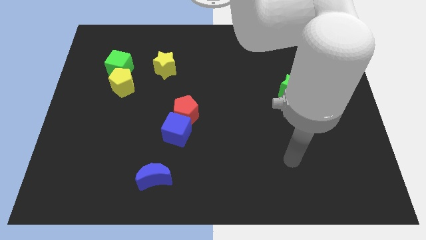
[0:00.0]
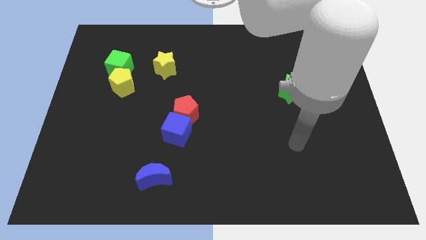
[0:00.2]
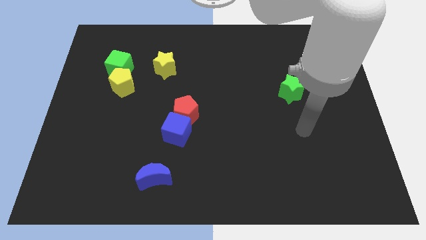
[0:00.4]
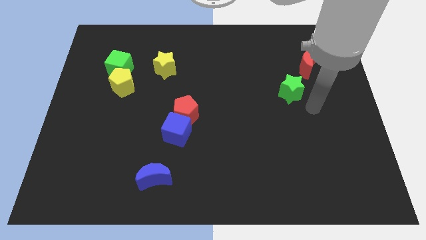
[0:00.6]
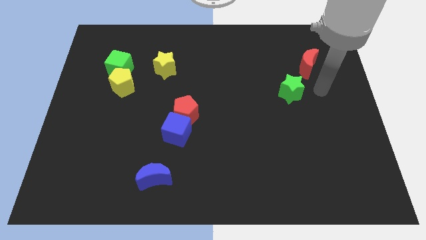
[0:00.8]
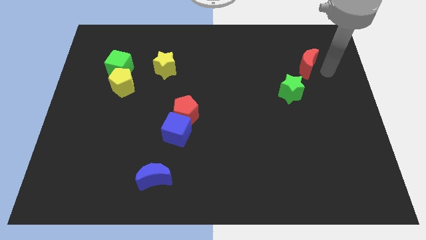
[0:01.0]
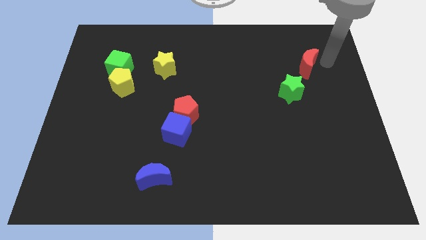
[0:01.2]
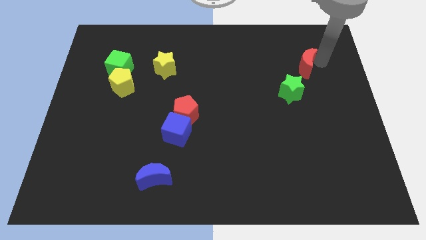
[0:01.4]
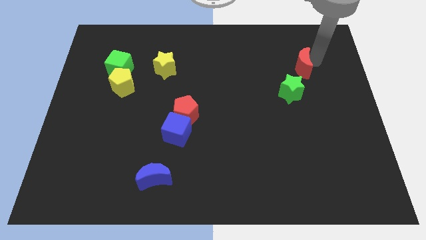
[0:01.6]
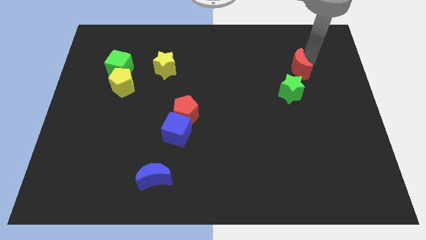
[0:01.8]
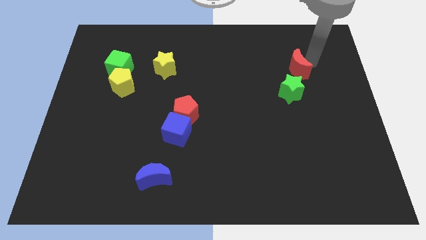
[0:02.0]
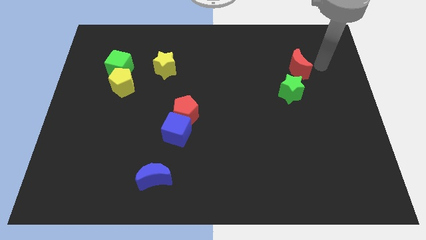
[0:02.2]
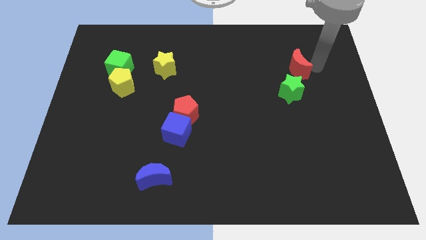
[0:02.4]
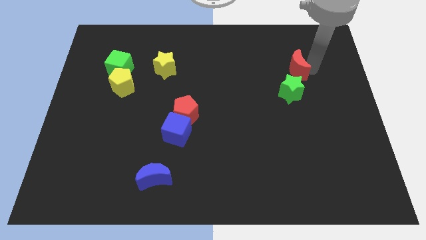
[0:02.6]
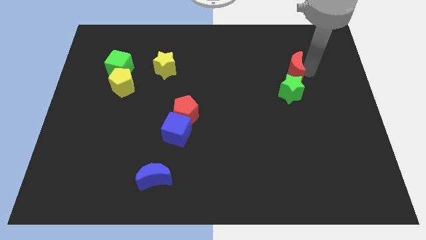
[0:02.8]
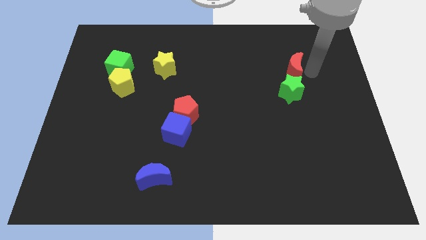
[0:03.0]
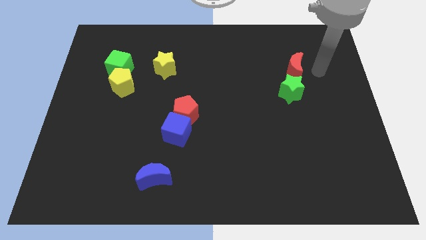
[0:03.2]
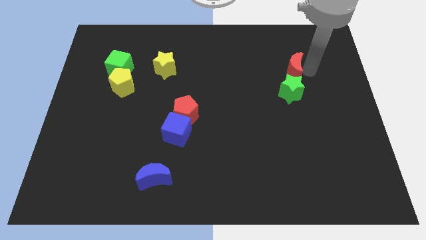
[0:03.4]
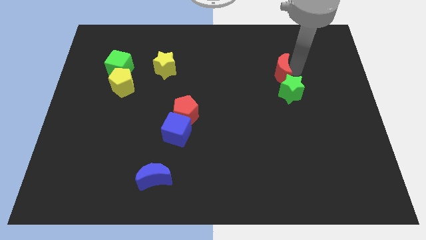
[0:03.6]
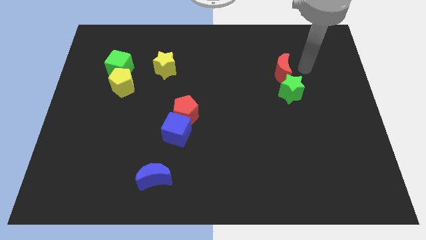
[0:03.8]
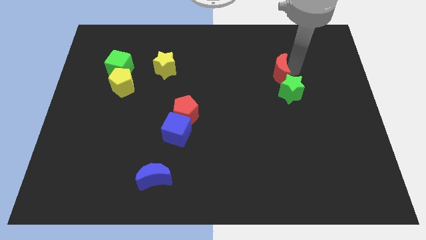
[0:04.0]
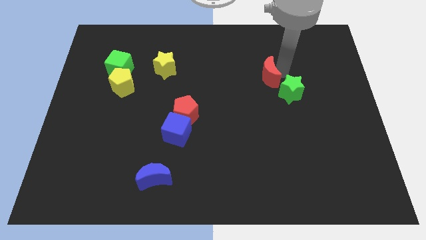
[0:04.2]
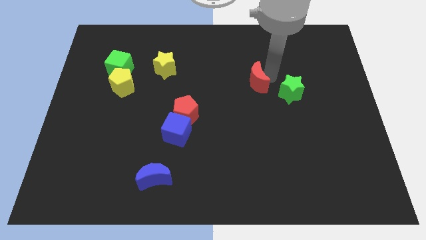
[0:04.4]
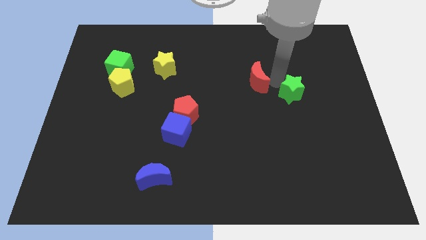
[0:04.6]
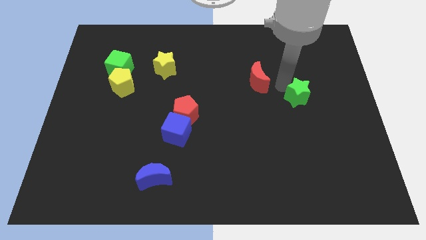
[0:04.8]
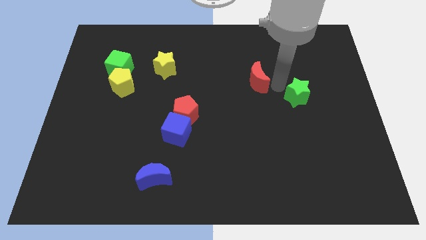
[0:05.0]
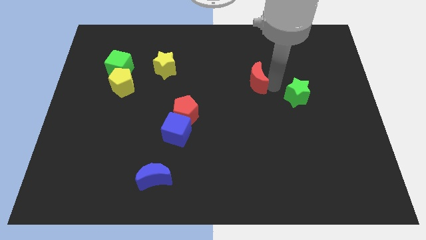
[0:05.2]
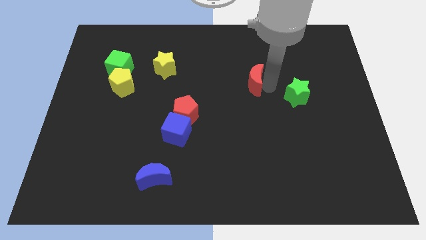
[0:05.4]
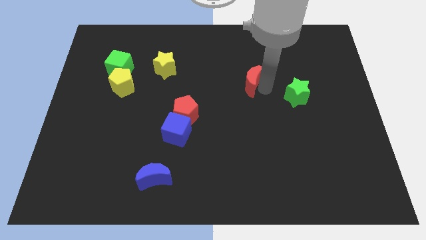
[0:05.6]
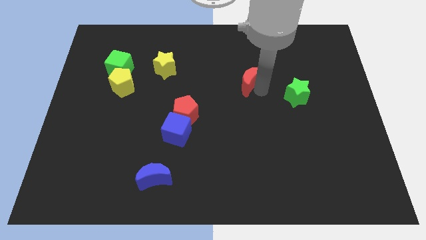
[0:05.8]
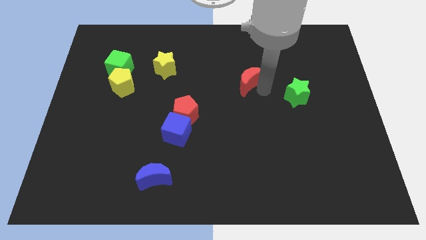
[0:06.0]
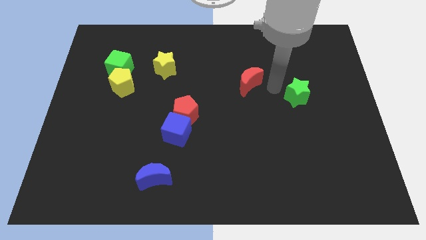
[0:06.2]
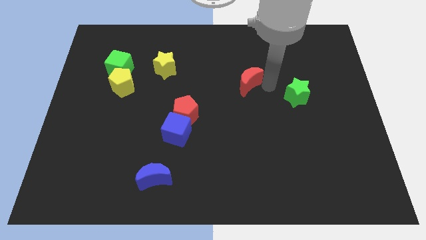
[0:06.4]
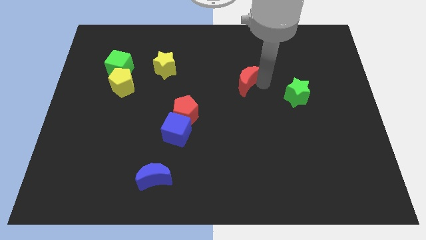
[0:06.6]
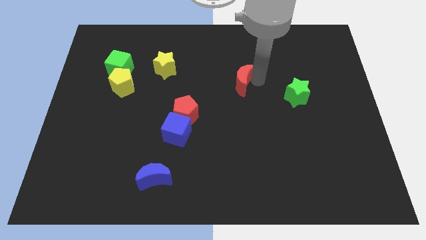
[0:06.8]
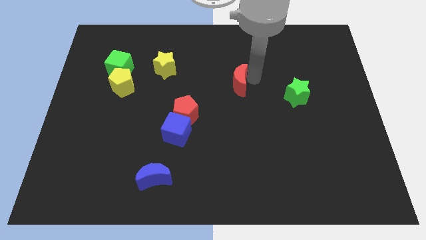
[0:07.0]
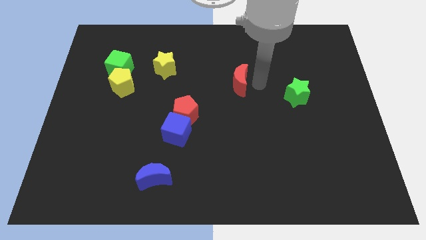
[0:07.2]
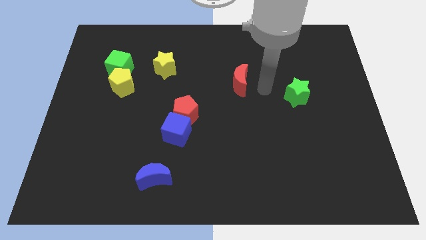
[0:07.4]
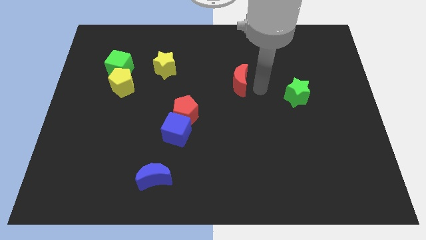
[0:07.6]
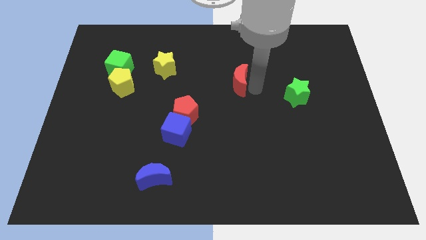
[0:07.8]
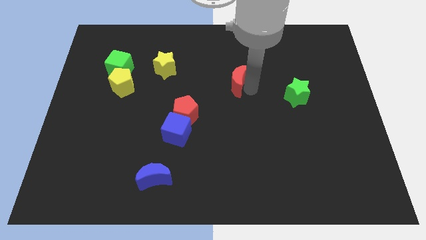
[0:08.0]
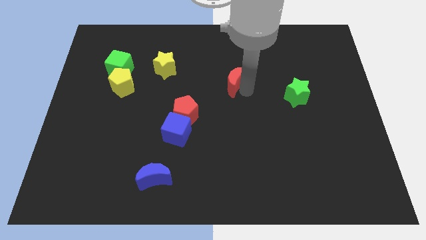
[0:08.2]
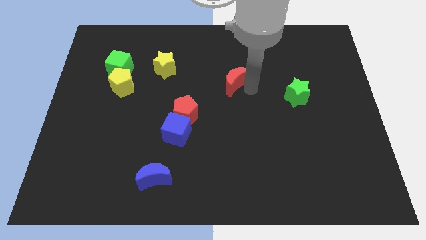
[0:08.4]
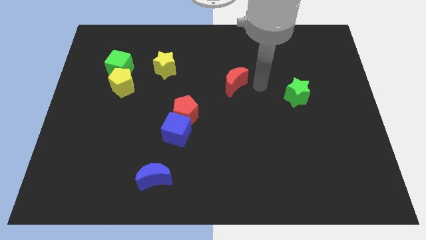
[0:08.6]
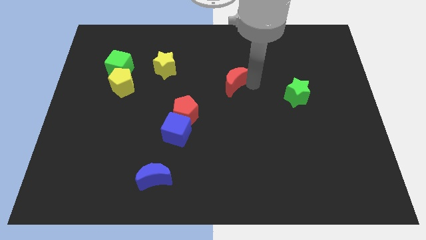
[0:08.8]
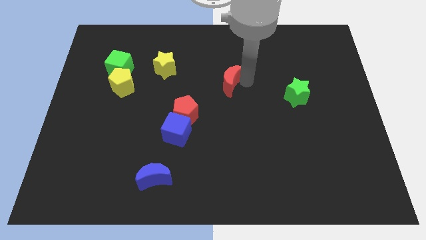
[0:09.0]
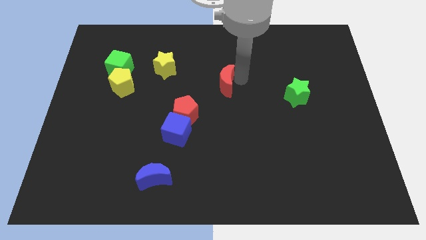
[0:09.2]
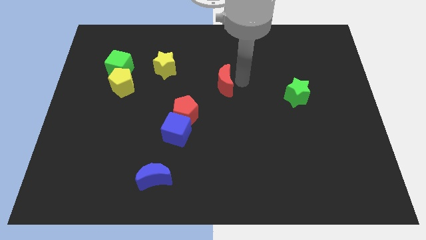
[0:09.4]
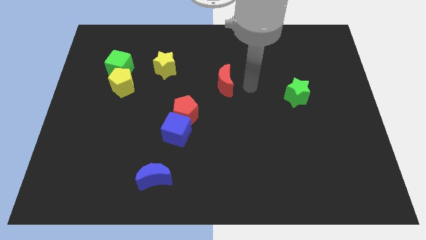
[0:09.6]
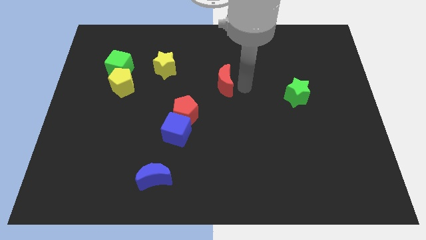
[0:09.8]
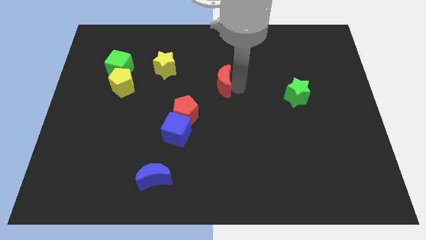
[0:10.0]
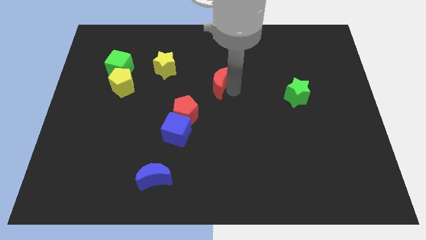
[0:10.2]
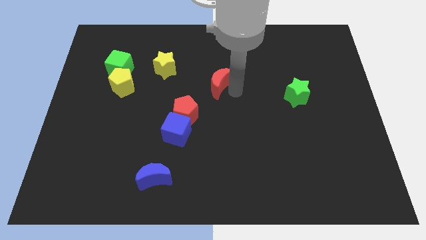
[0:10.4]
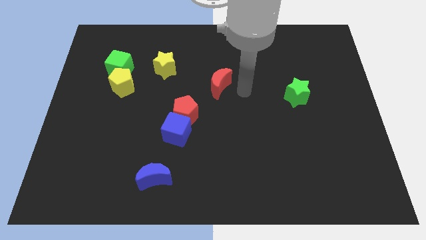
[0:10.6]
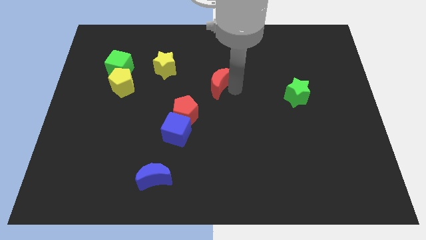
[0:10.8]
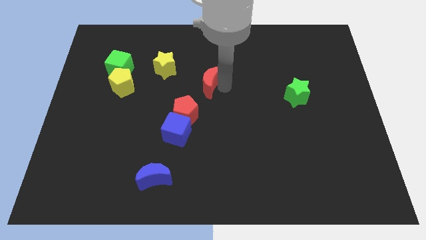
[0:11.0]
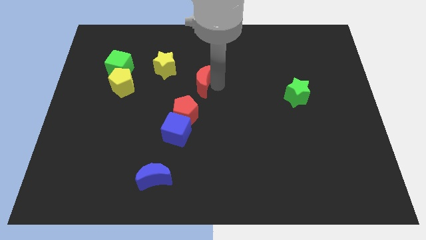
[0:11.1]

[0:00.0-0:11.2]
slide the red moon to the bottom right of the yellow star

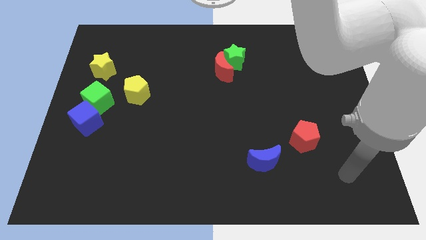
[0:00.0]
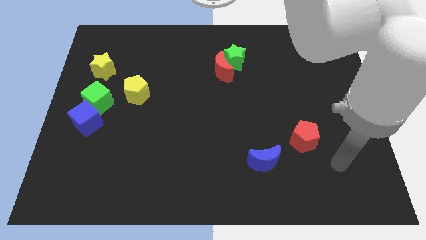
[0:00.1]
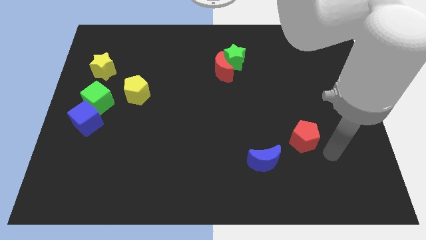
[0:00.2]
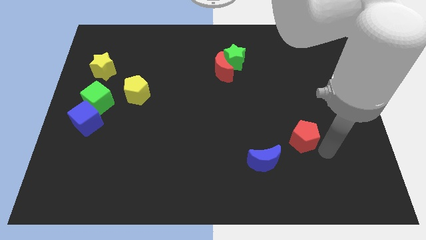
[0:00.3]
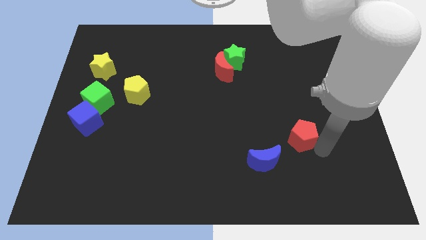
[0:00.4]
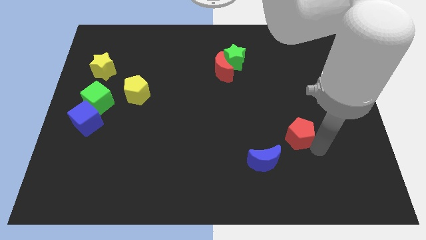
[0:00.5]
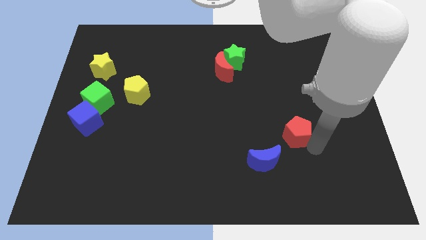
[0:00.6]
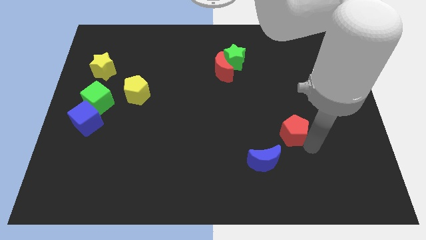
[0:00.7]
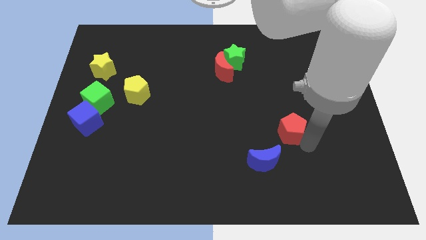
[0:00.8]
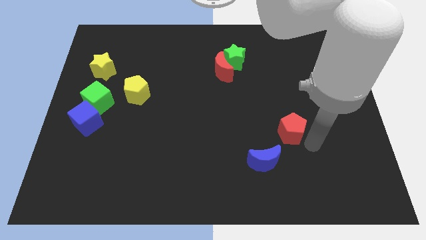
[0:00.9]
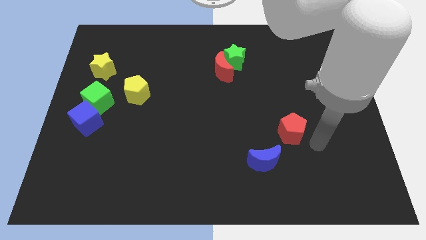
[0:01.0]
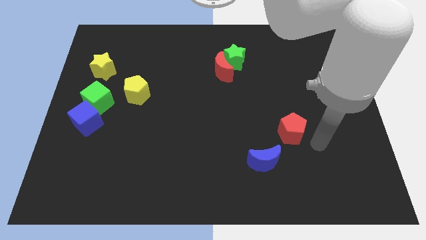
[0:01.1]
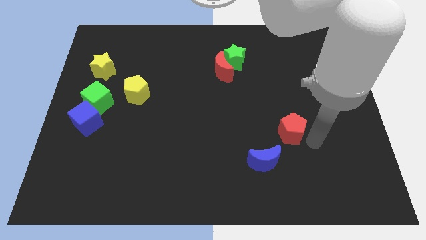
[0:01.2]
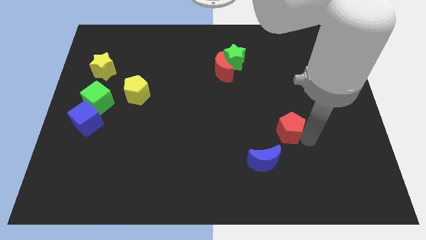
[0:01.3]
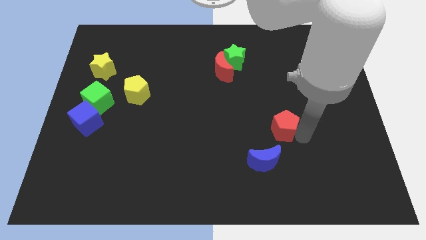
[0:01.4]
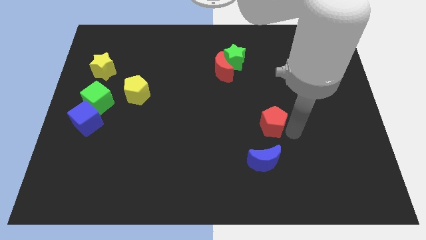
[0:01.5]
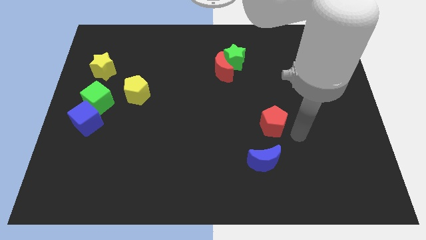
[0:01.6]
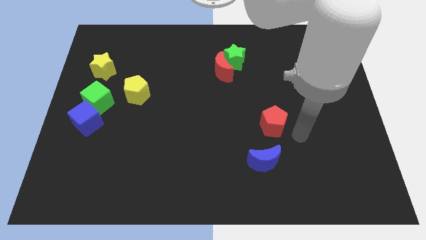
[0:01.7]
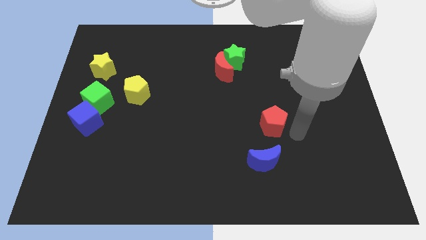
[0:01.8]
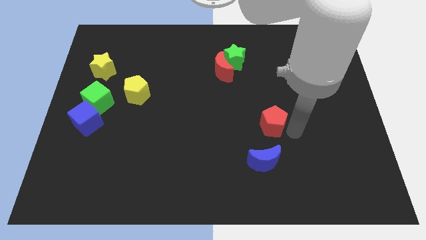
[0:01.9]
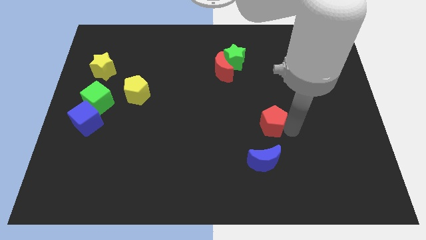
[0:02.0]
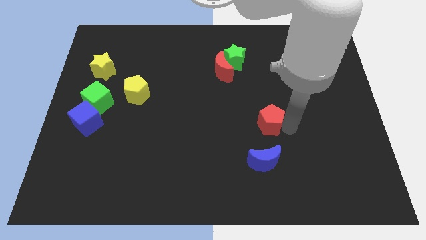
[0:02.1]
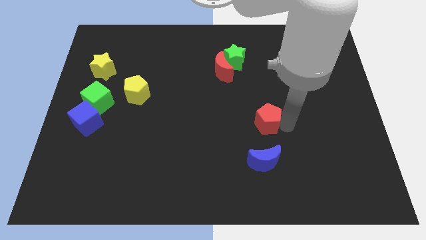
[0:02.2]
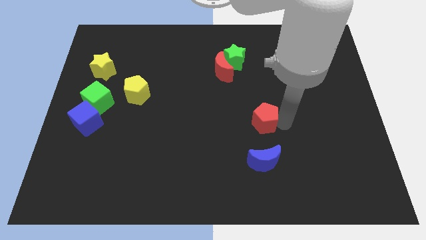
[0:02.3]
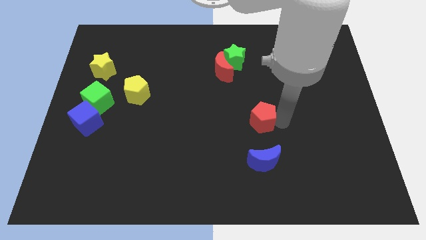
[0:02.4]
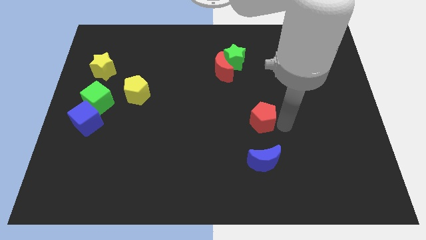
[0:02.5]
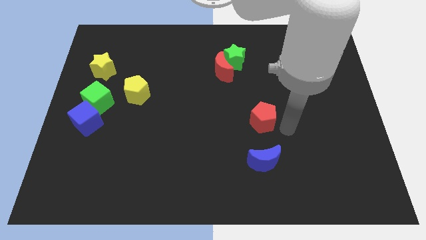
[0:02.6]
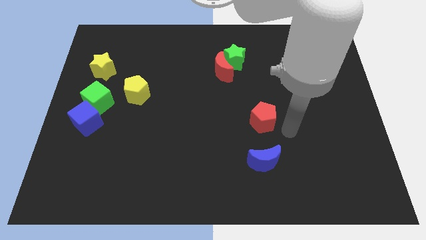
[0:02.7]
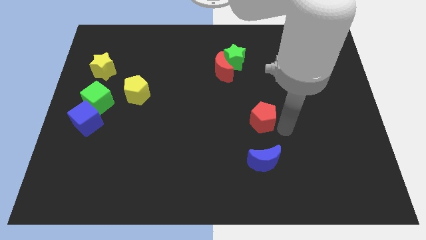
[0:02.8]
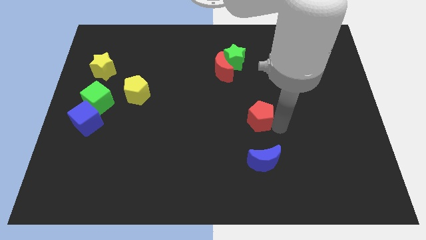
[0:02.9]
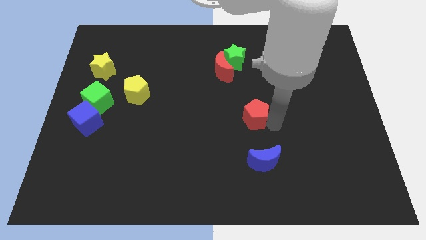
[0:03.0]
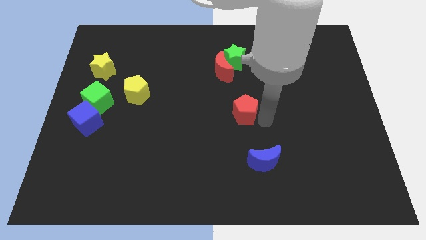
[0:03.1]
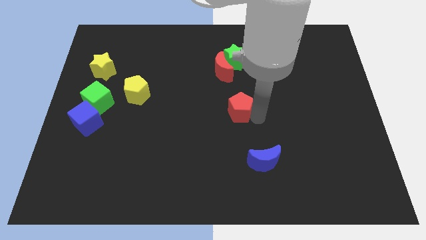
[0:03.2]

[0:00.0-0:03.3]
move the red pentagon to the bottom side of the red moon
